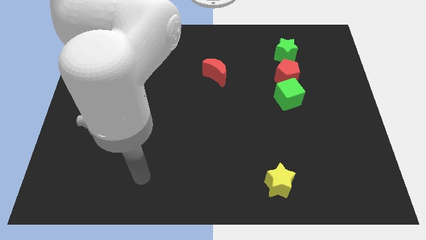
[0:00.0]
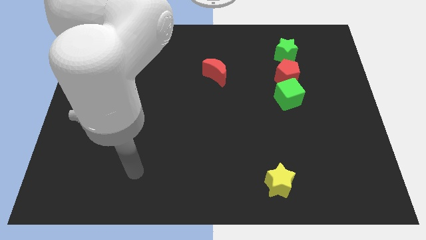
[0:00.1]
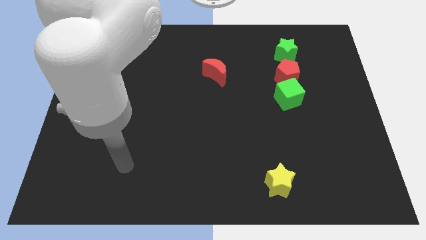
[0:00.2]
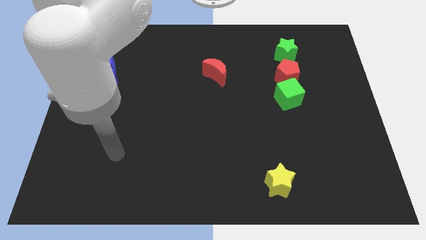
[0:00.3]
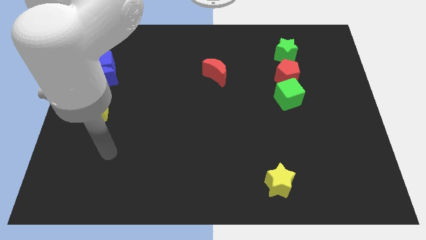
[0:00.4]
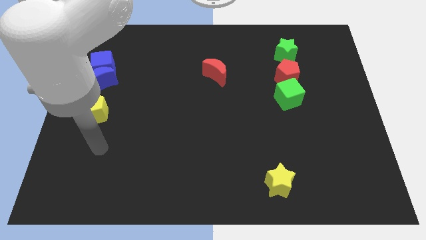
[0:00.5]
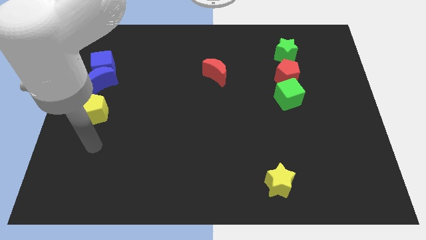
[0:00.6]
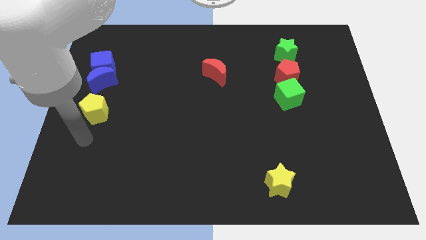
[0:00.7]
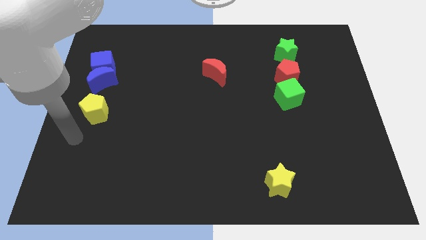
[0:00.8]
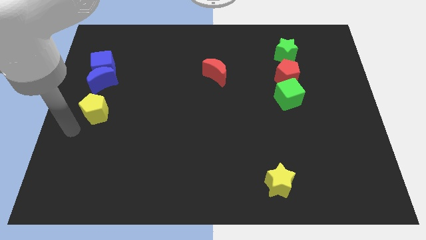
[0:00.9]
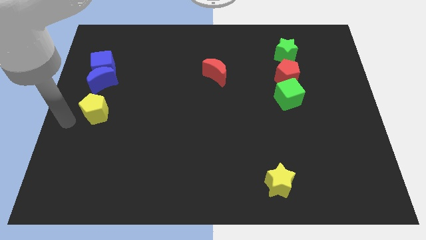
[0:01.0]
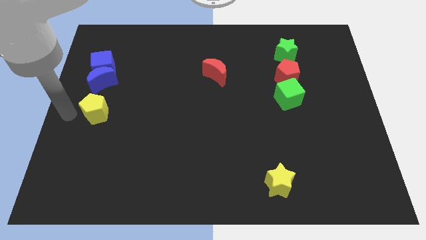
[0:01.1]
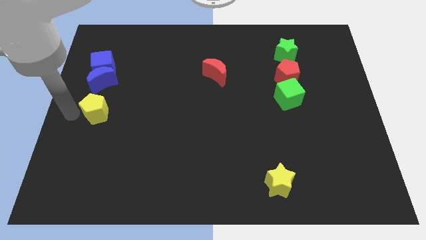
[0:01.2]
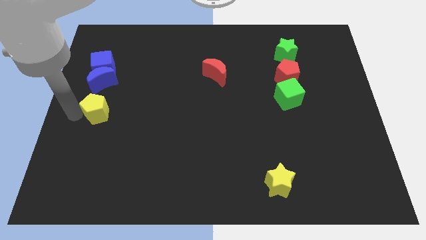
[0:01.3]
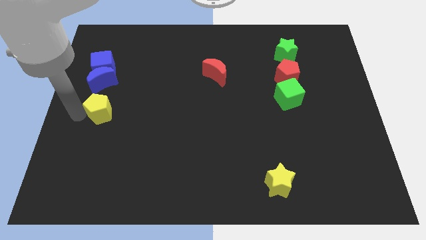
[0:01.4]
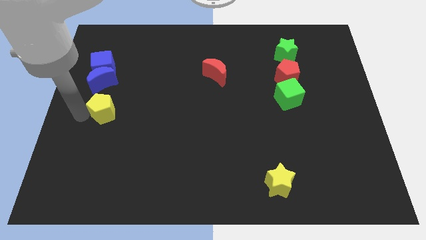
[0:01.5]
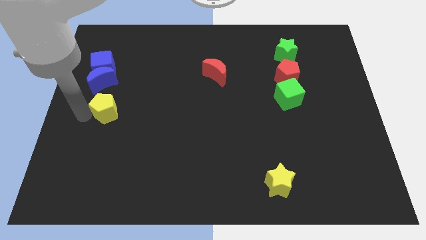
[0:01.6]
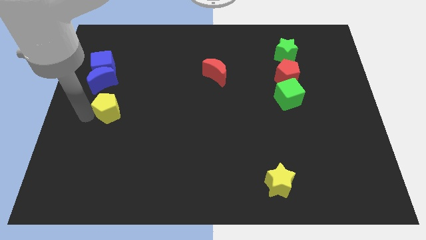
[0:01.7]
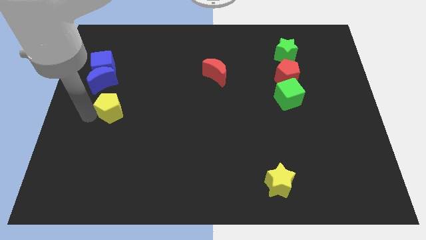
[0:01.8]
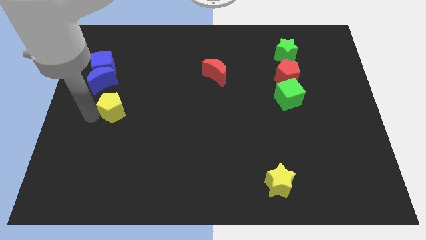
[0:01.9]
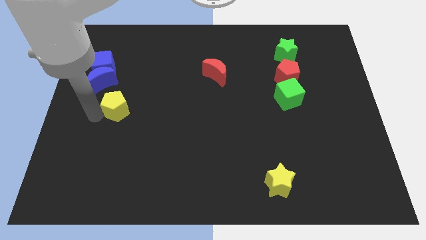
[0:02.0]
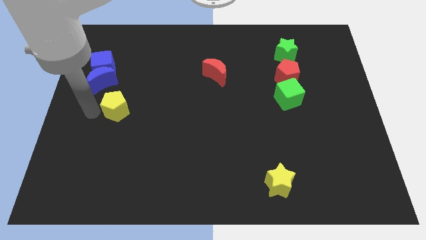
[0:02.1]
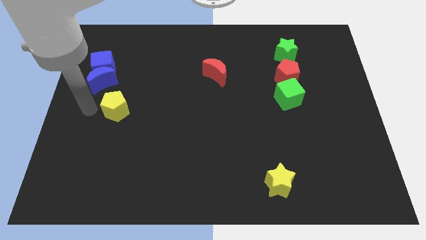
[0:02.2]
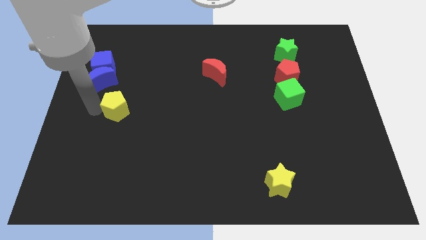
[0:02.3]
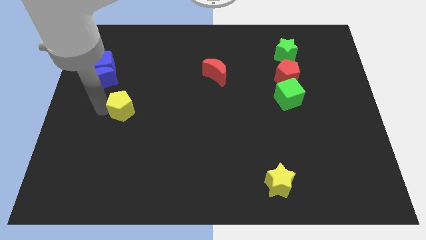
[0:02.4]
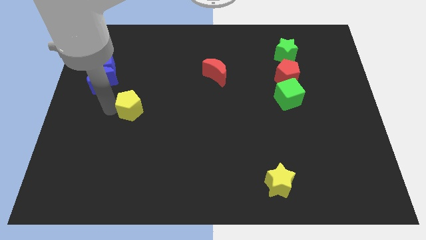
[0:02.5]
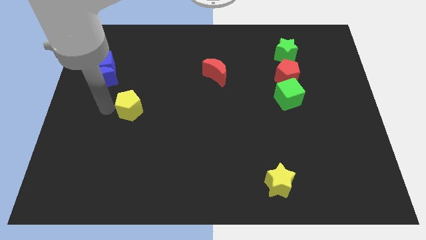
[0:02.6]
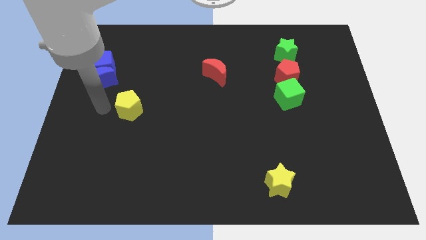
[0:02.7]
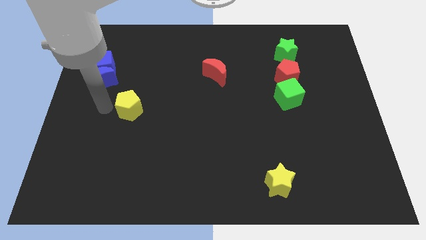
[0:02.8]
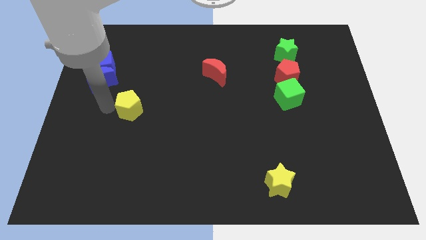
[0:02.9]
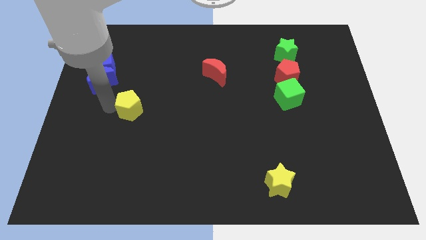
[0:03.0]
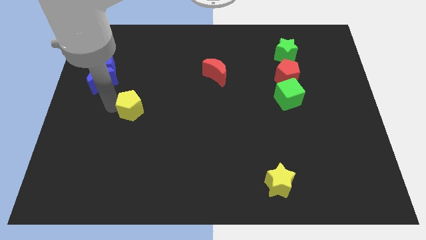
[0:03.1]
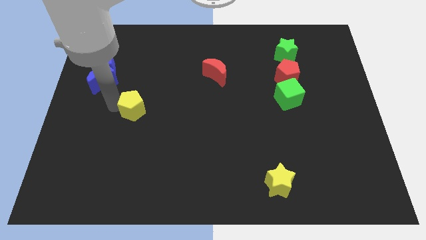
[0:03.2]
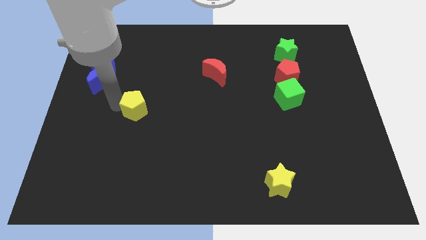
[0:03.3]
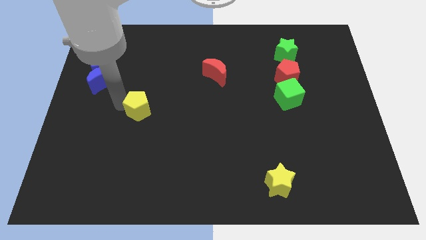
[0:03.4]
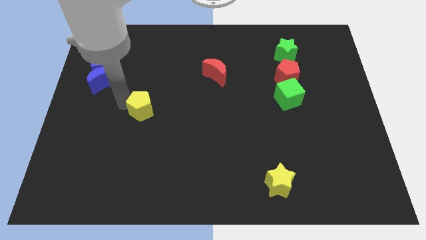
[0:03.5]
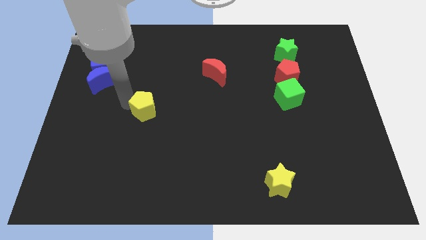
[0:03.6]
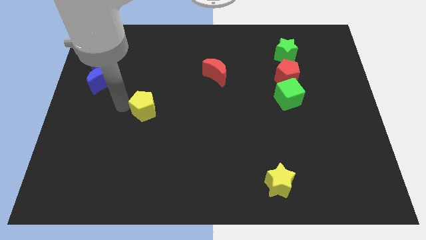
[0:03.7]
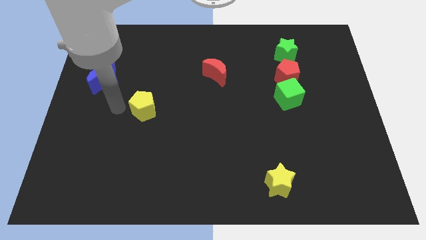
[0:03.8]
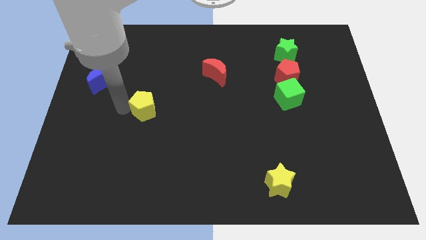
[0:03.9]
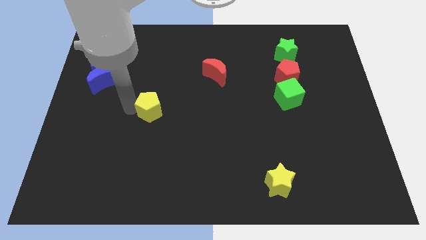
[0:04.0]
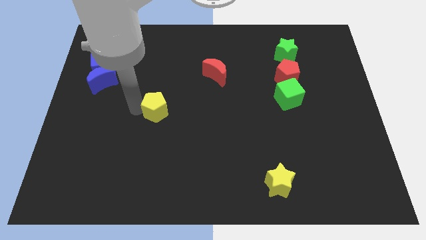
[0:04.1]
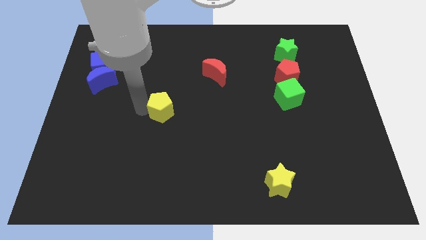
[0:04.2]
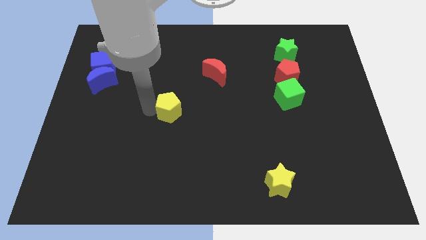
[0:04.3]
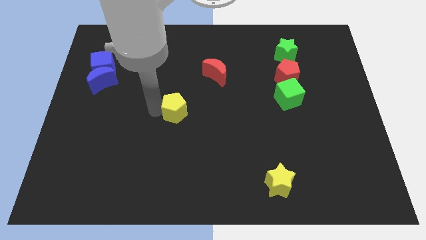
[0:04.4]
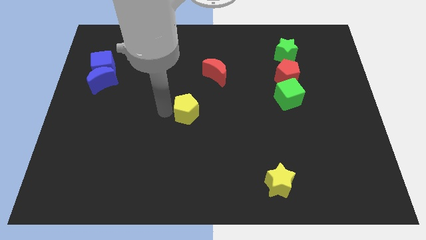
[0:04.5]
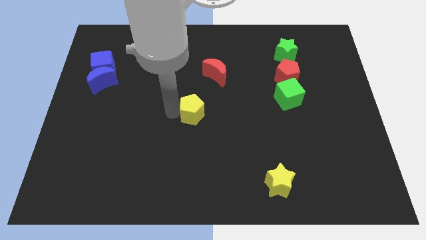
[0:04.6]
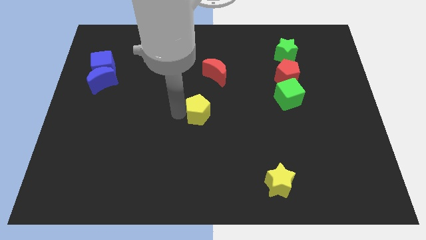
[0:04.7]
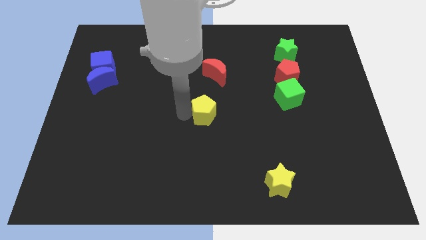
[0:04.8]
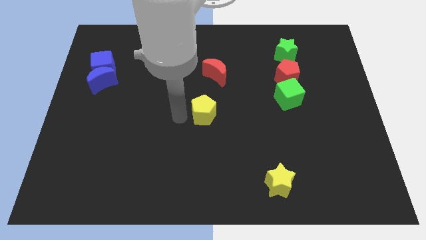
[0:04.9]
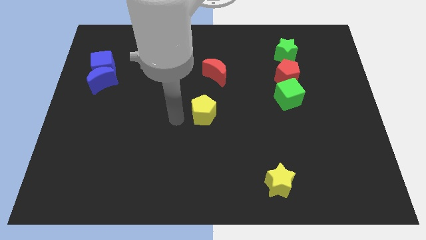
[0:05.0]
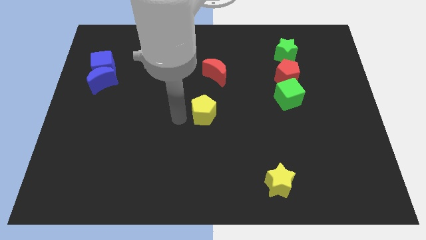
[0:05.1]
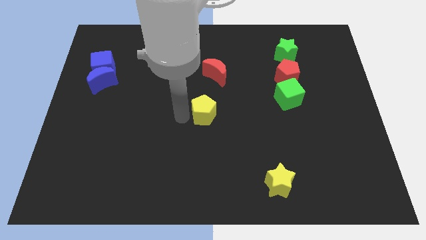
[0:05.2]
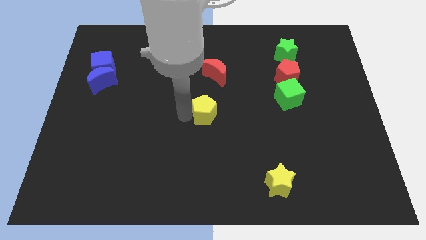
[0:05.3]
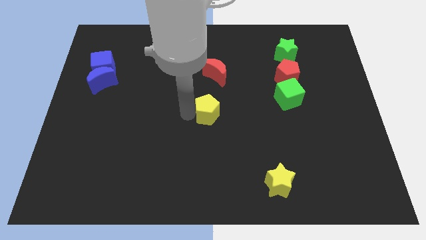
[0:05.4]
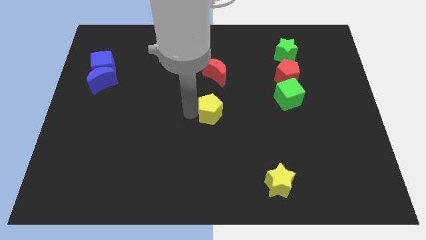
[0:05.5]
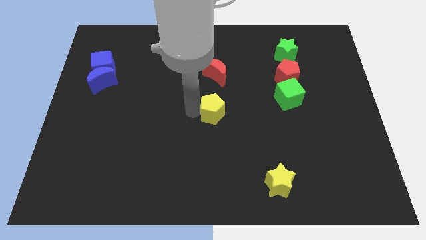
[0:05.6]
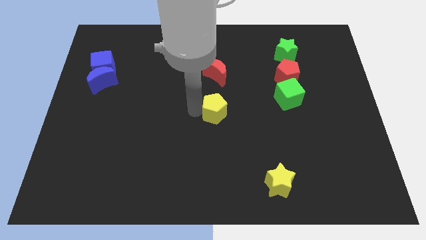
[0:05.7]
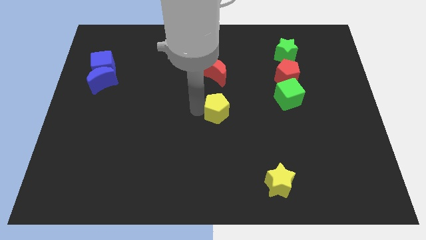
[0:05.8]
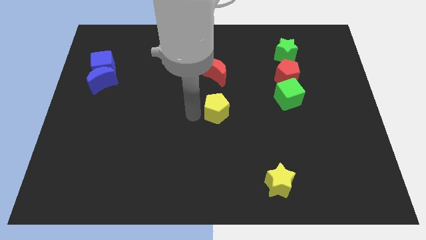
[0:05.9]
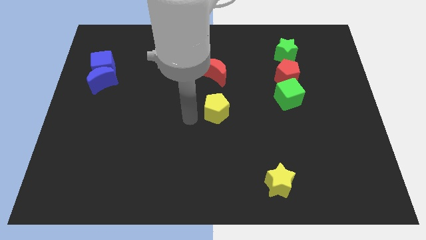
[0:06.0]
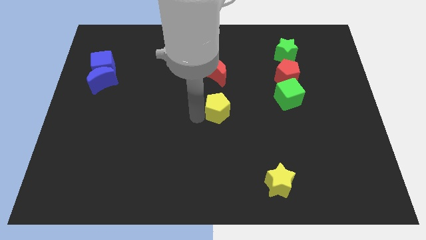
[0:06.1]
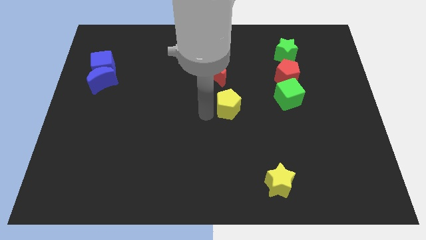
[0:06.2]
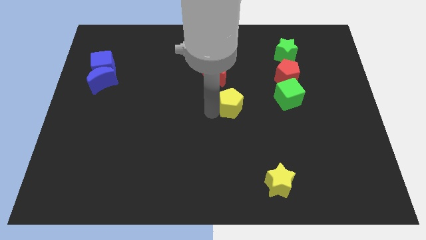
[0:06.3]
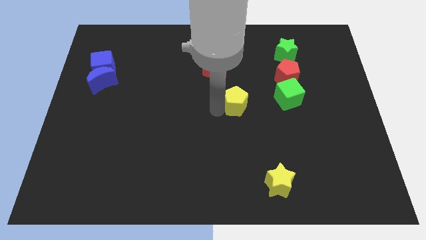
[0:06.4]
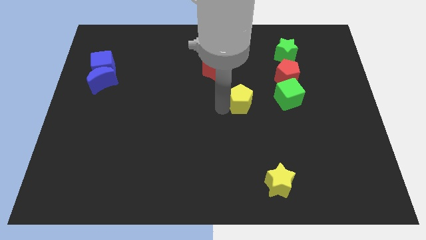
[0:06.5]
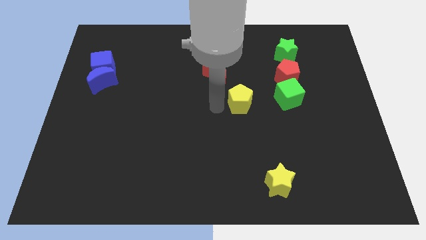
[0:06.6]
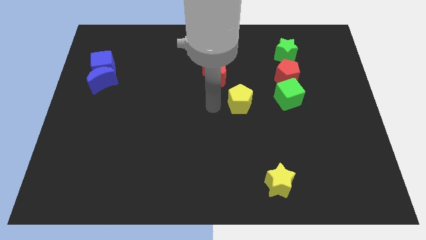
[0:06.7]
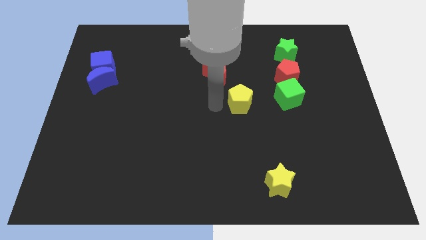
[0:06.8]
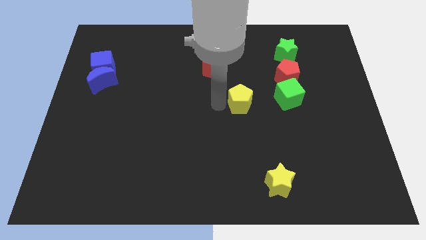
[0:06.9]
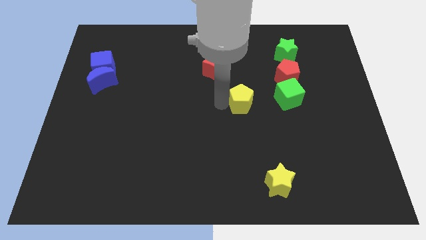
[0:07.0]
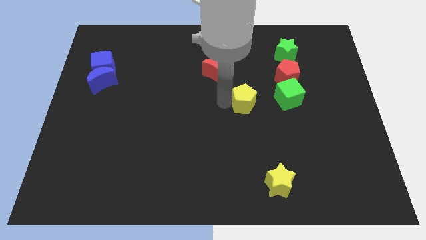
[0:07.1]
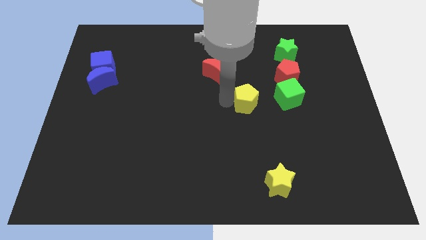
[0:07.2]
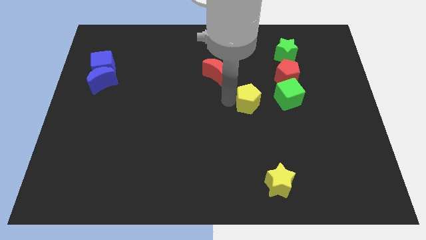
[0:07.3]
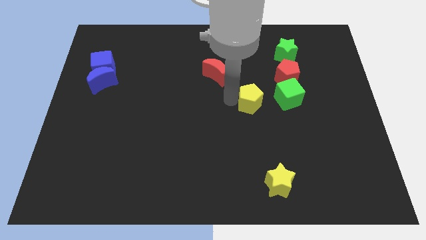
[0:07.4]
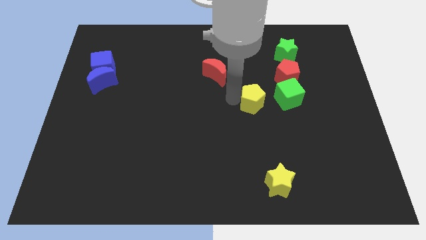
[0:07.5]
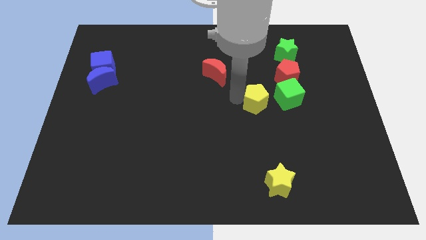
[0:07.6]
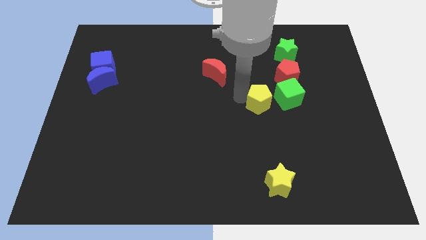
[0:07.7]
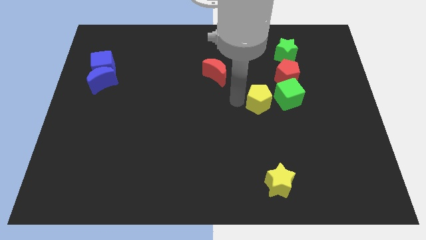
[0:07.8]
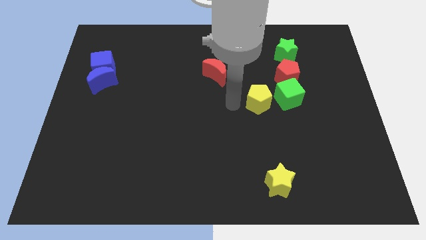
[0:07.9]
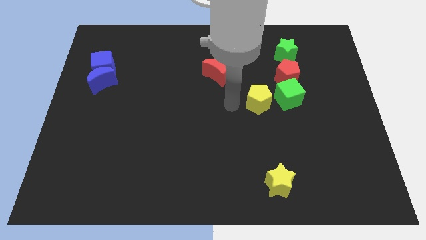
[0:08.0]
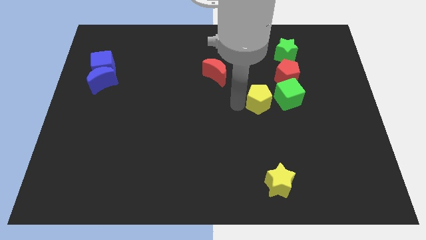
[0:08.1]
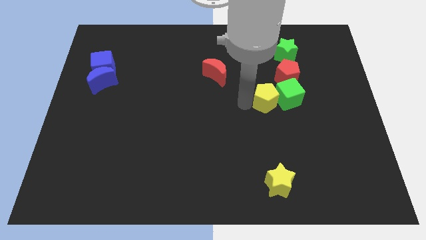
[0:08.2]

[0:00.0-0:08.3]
put the yellow pentagon next to the green cube
